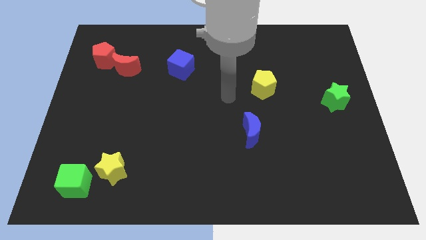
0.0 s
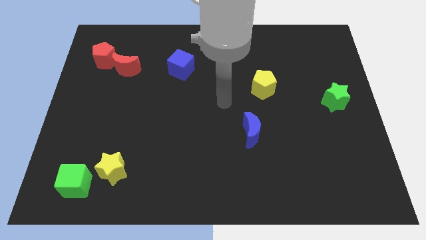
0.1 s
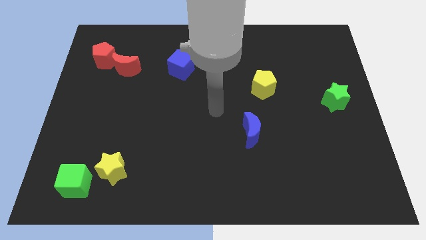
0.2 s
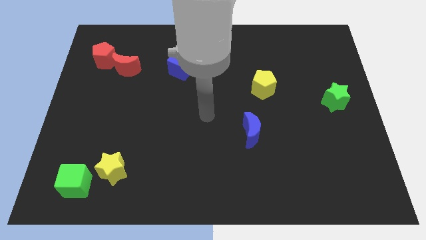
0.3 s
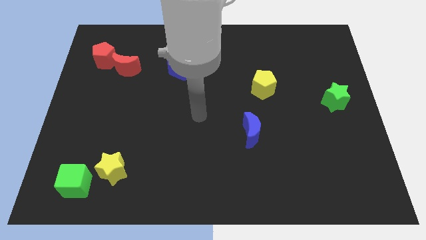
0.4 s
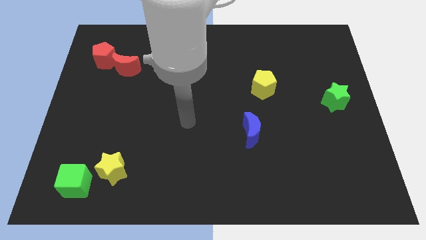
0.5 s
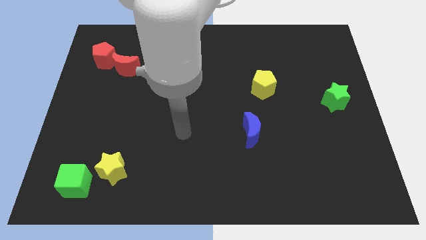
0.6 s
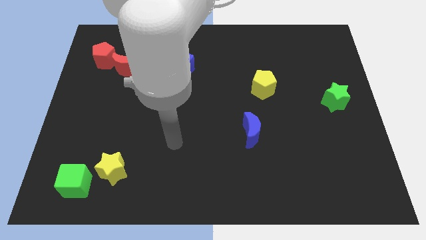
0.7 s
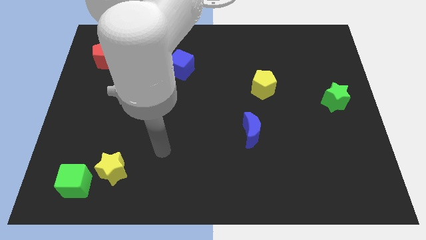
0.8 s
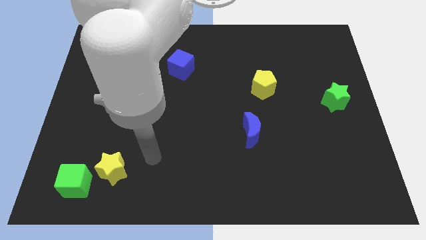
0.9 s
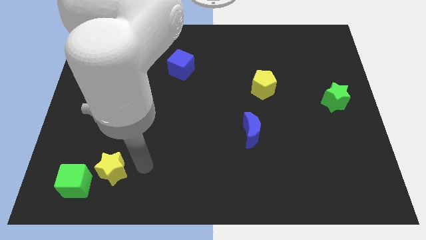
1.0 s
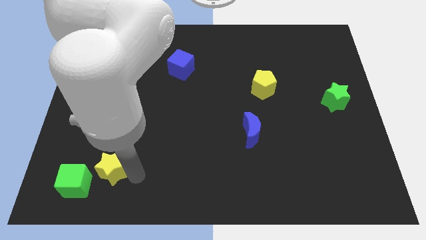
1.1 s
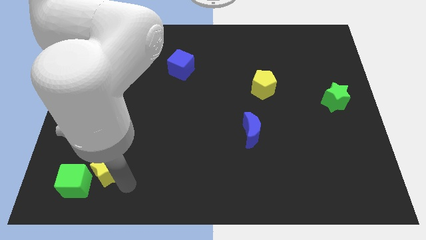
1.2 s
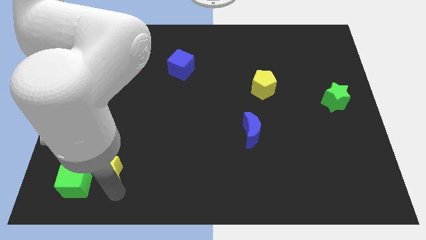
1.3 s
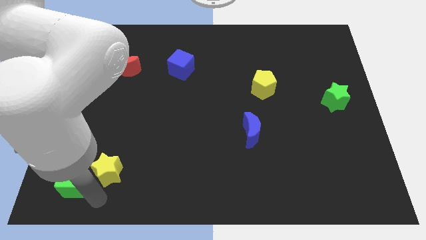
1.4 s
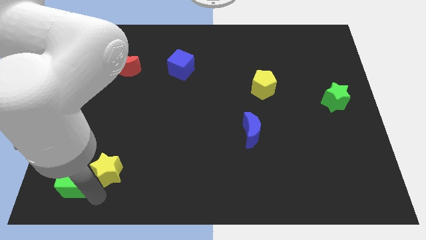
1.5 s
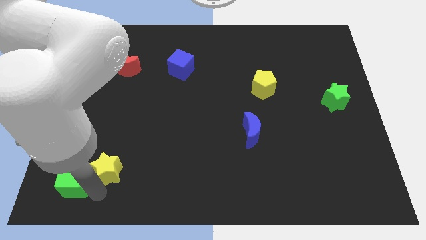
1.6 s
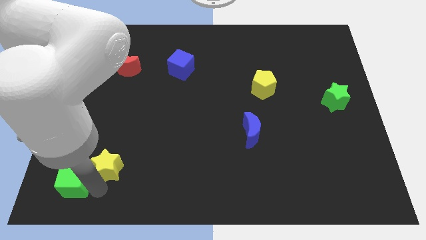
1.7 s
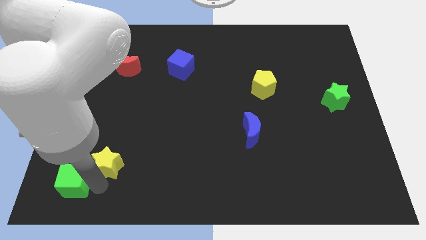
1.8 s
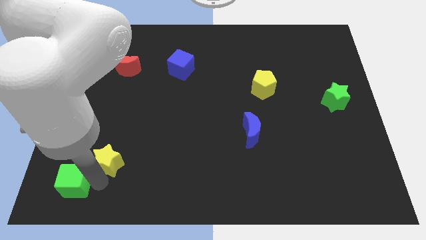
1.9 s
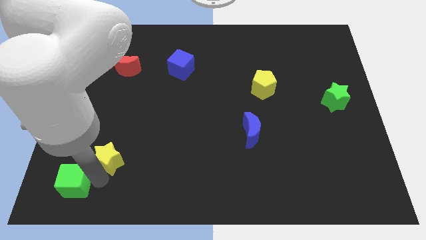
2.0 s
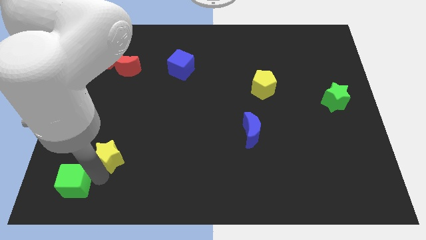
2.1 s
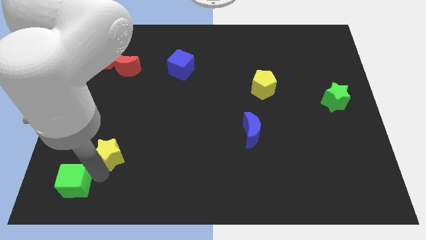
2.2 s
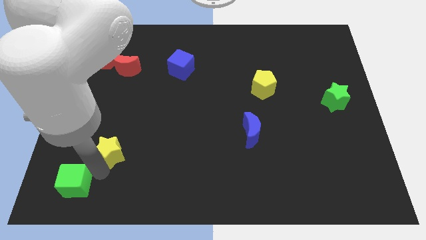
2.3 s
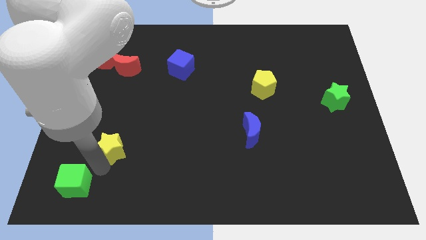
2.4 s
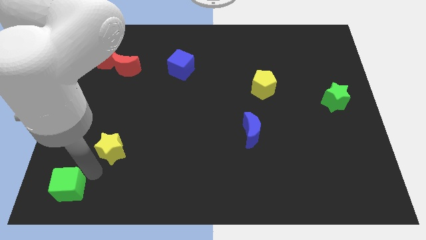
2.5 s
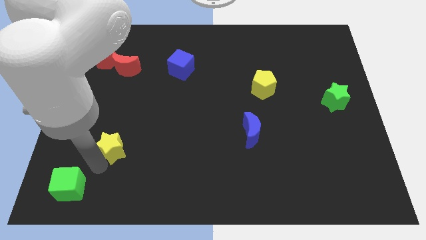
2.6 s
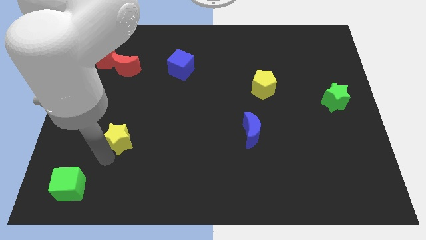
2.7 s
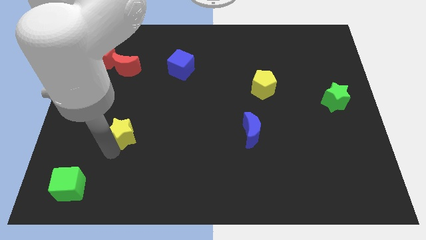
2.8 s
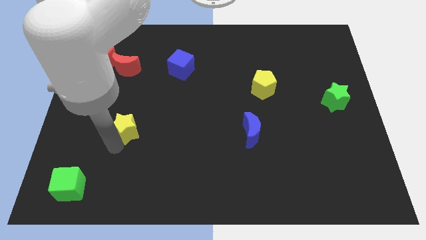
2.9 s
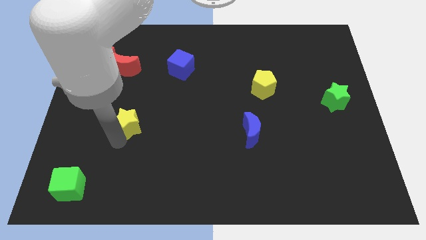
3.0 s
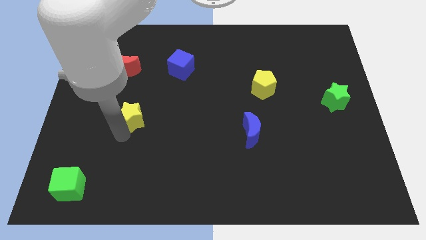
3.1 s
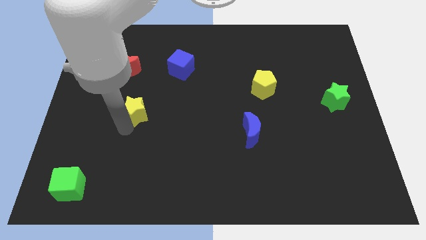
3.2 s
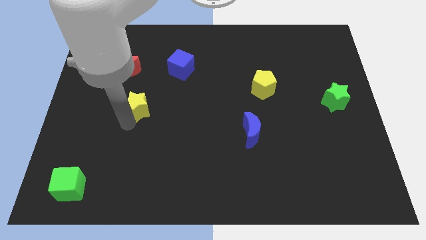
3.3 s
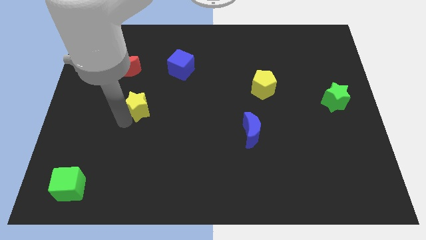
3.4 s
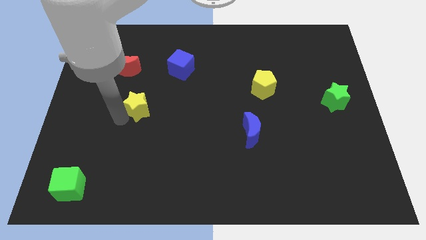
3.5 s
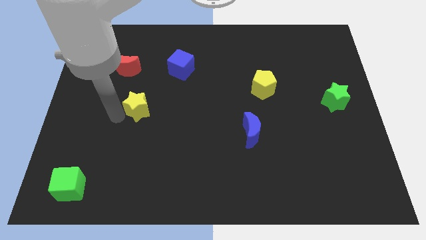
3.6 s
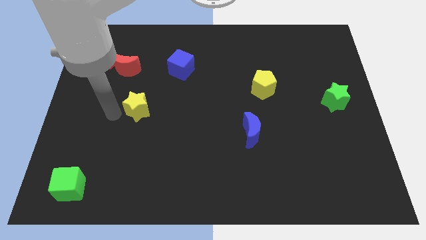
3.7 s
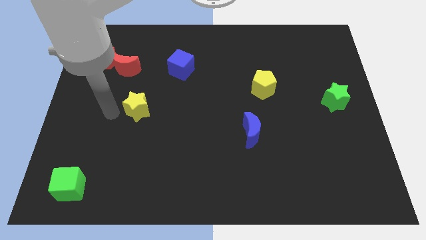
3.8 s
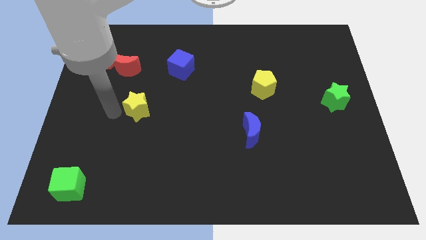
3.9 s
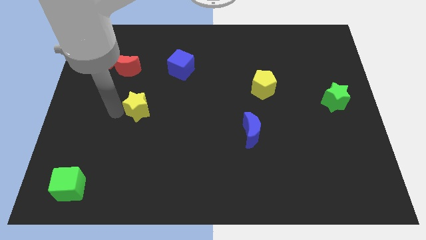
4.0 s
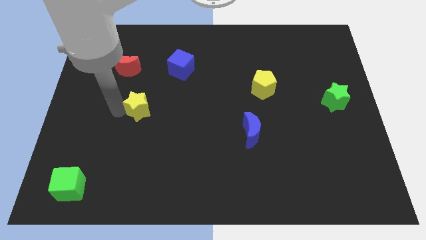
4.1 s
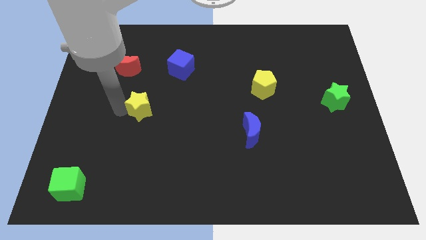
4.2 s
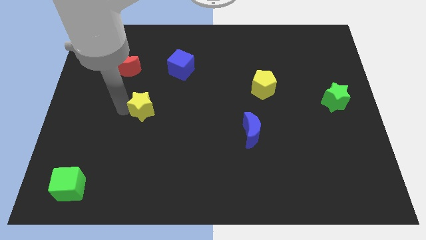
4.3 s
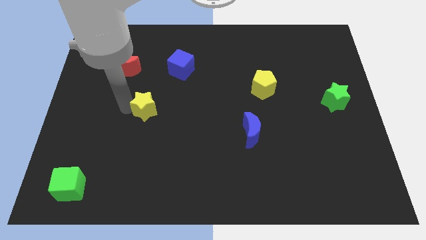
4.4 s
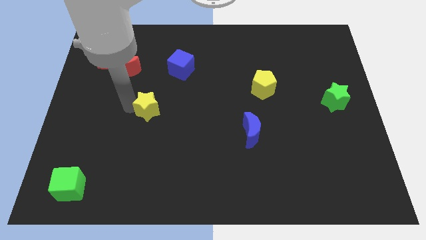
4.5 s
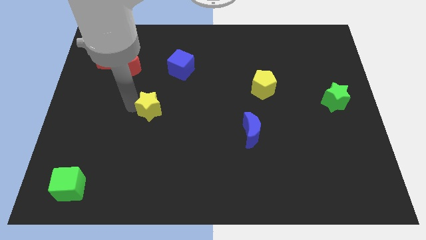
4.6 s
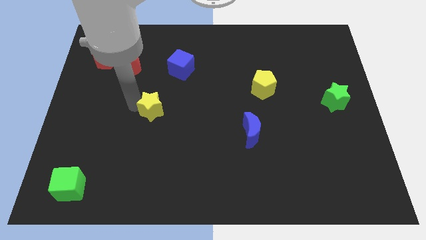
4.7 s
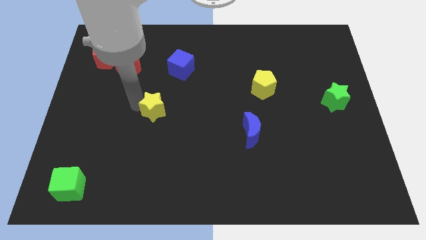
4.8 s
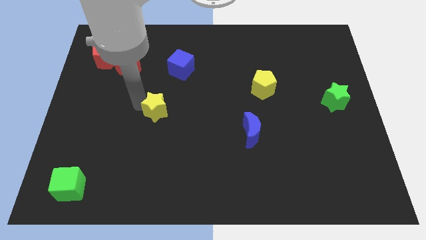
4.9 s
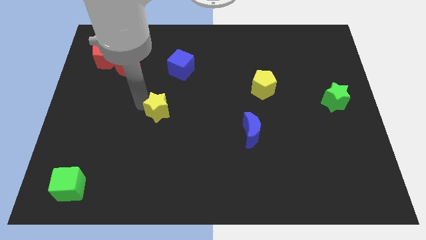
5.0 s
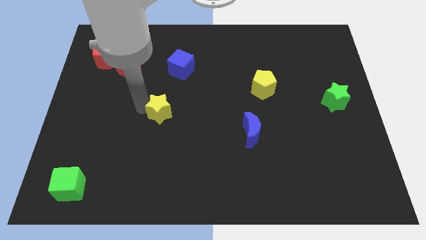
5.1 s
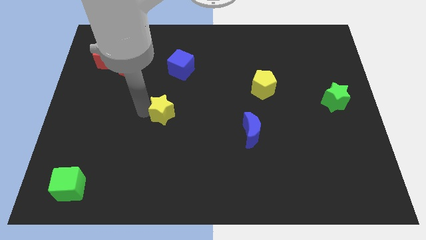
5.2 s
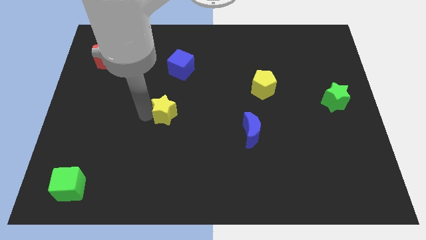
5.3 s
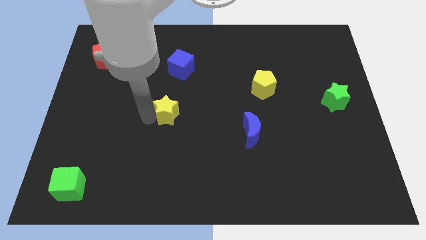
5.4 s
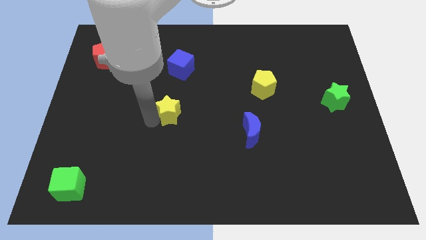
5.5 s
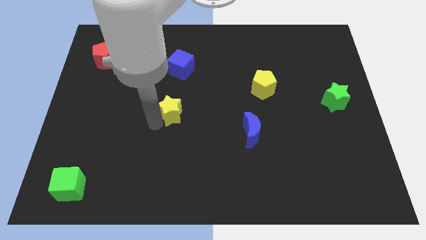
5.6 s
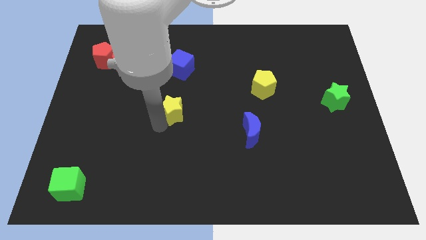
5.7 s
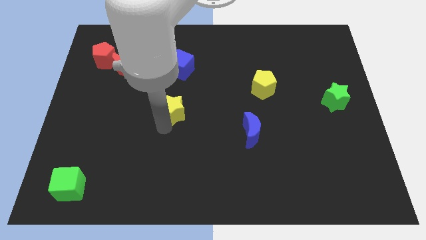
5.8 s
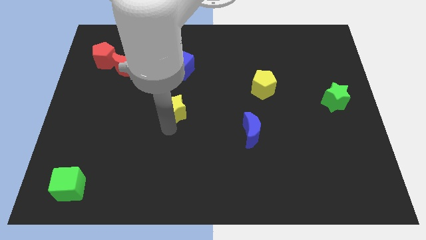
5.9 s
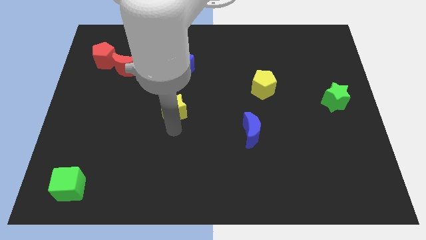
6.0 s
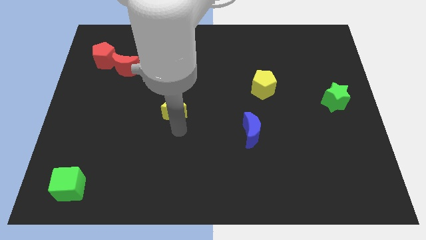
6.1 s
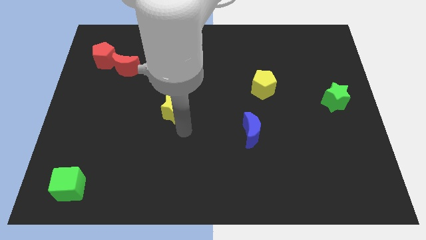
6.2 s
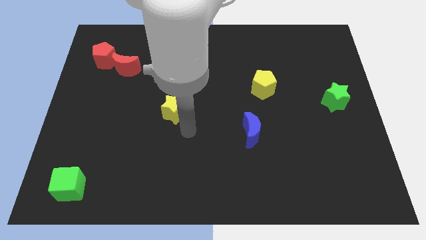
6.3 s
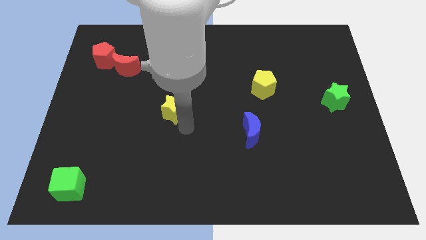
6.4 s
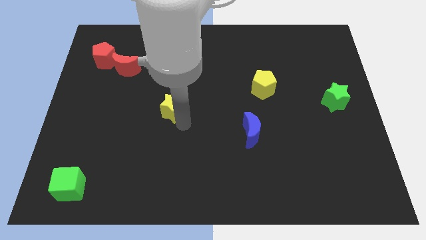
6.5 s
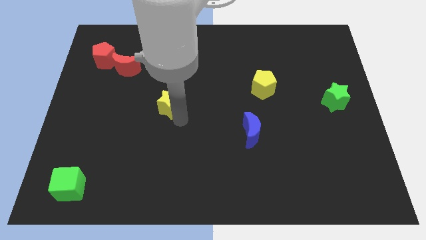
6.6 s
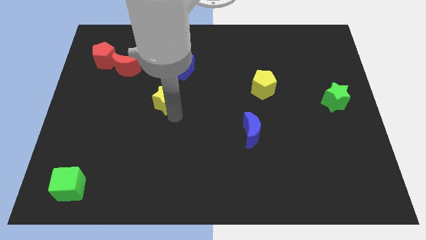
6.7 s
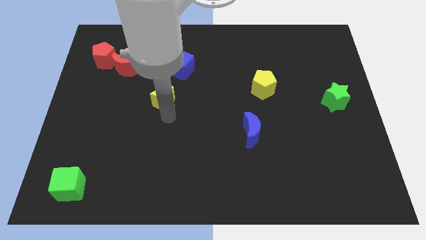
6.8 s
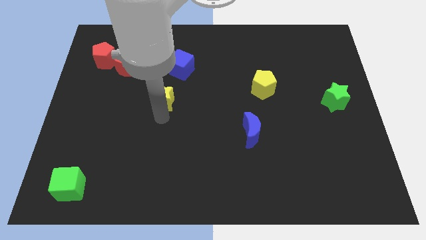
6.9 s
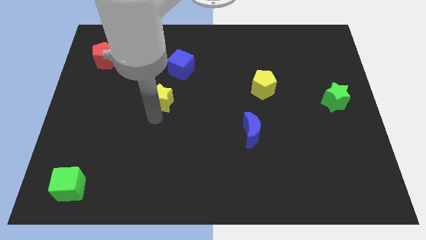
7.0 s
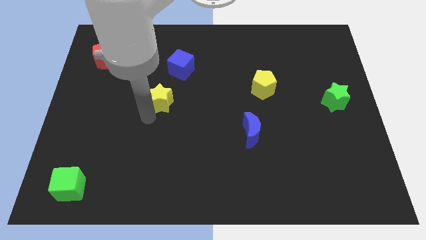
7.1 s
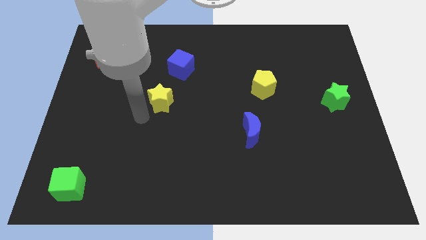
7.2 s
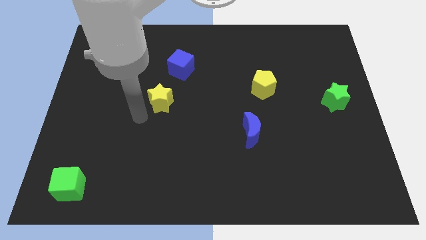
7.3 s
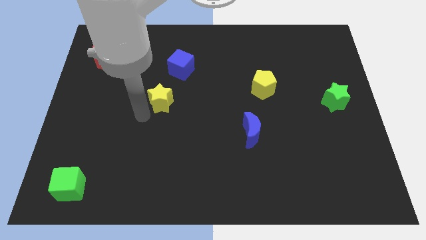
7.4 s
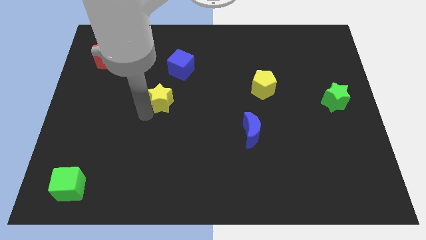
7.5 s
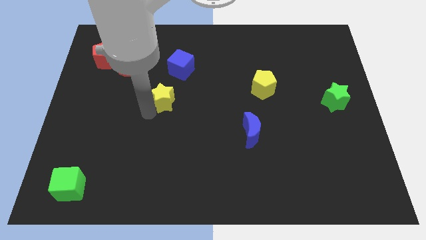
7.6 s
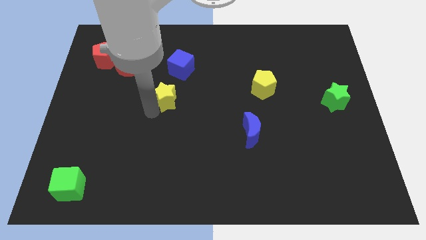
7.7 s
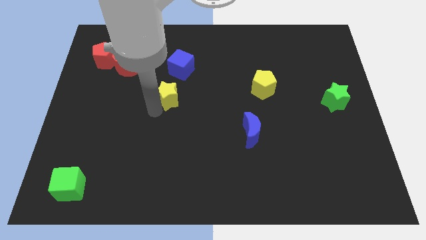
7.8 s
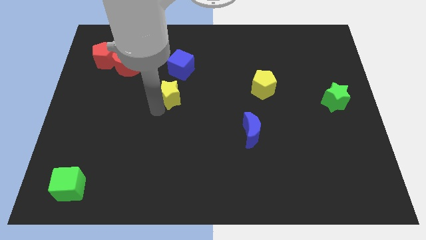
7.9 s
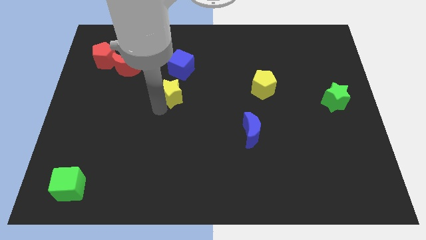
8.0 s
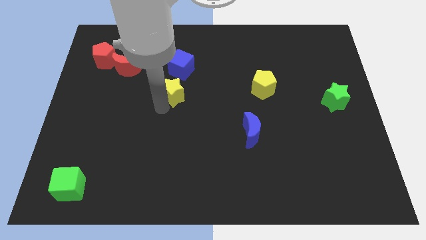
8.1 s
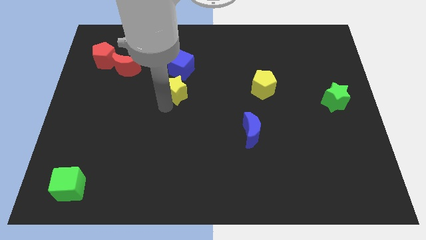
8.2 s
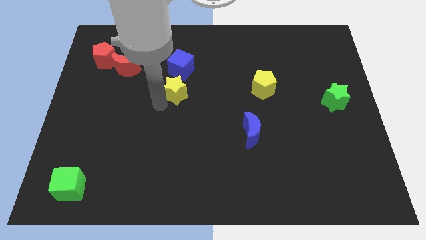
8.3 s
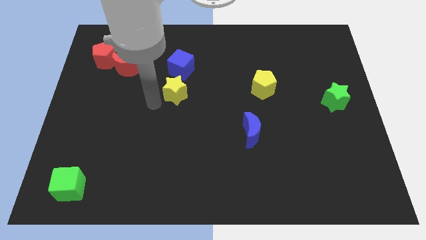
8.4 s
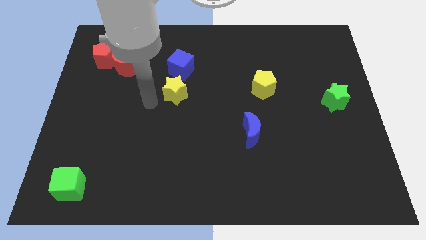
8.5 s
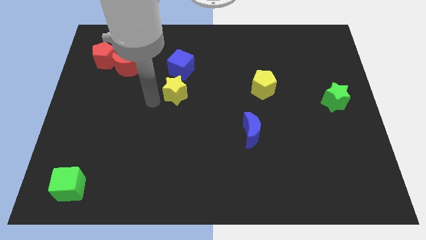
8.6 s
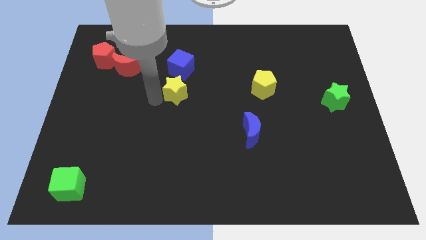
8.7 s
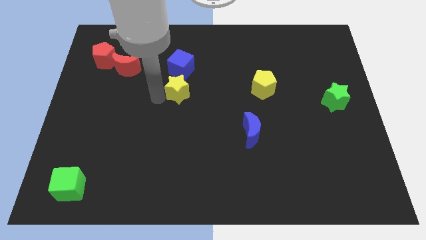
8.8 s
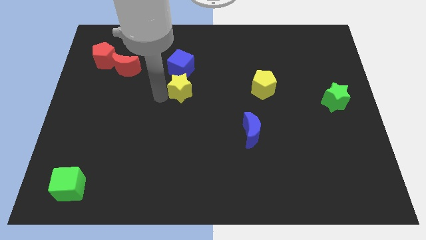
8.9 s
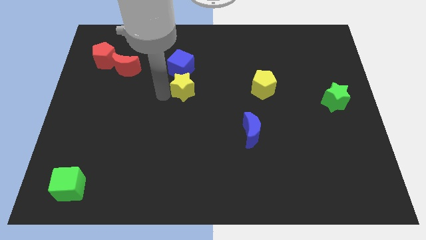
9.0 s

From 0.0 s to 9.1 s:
slide the yellow star to the bottom right of the blue cube
